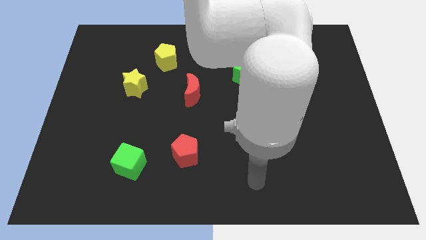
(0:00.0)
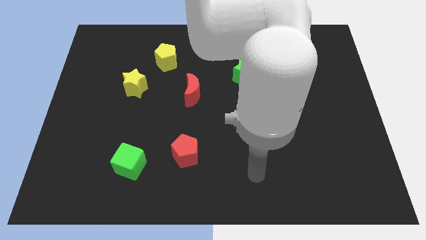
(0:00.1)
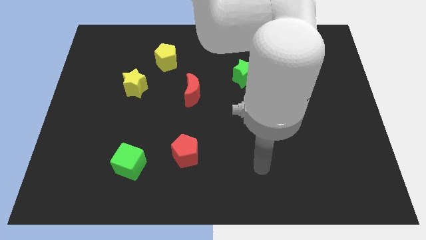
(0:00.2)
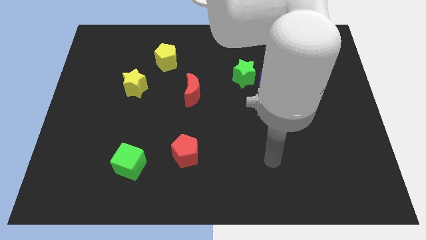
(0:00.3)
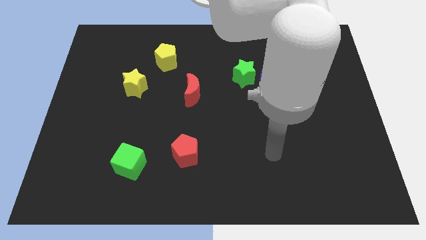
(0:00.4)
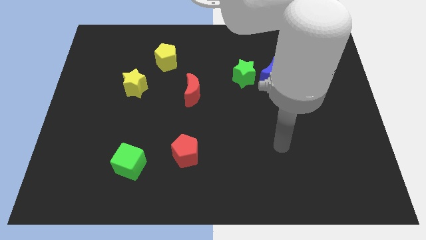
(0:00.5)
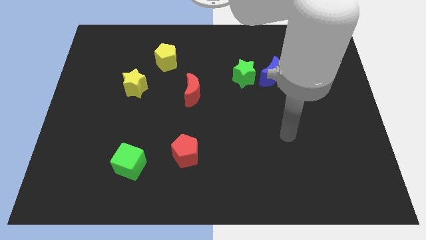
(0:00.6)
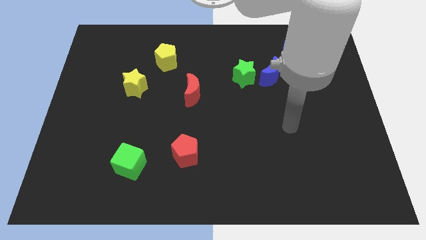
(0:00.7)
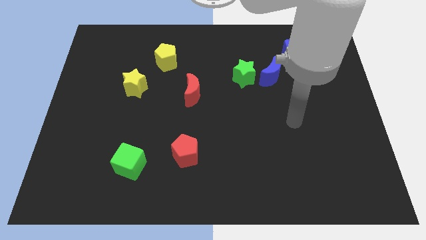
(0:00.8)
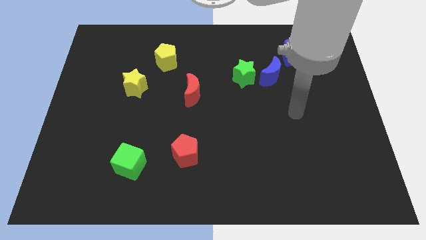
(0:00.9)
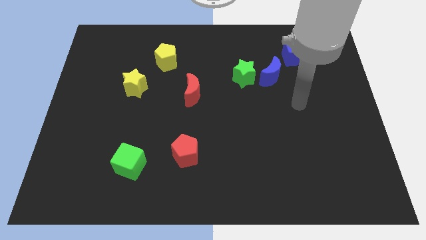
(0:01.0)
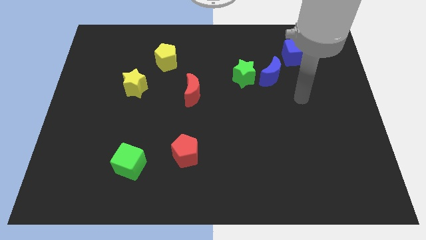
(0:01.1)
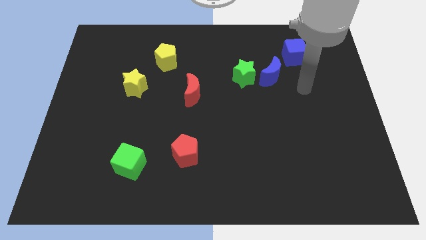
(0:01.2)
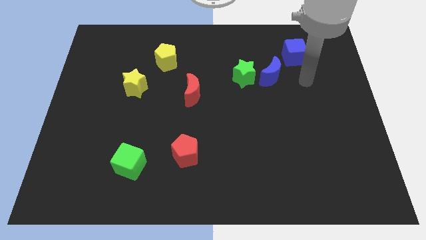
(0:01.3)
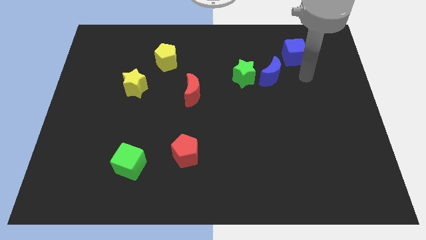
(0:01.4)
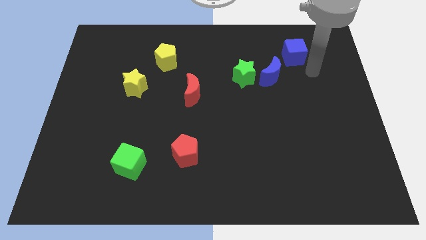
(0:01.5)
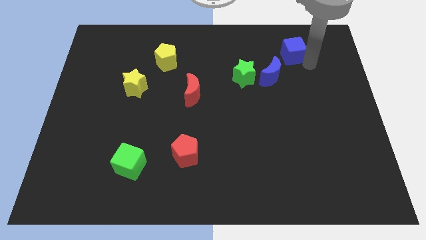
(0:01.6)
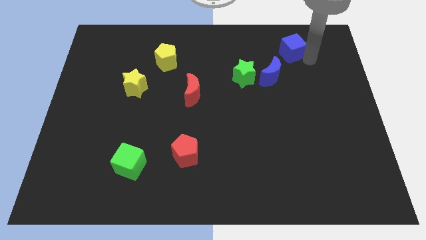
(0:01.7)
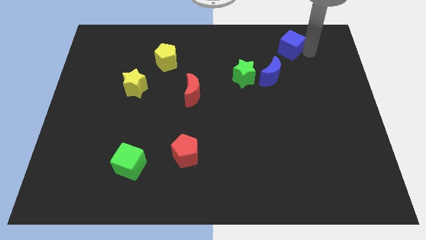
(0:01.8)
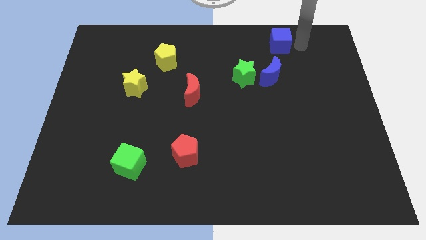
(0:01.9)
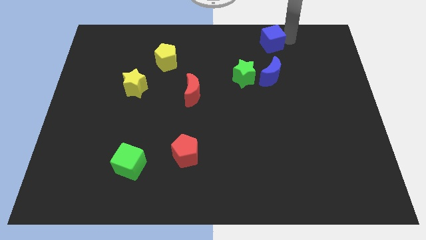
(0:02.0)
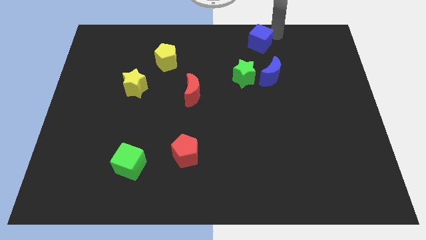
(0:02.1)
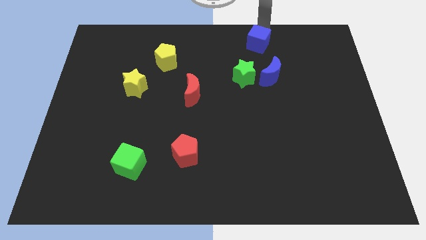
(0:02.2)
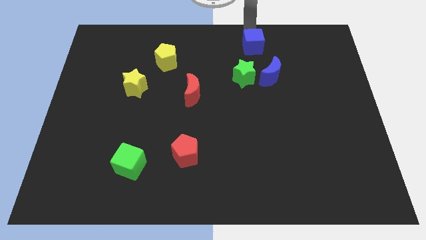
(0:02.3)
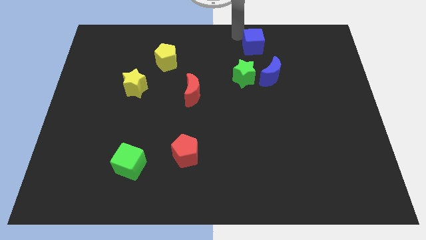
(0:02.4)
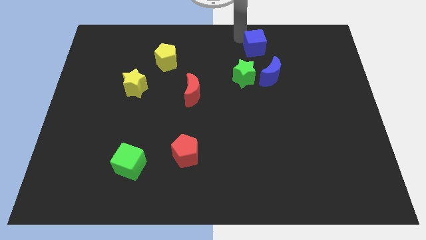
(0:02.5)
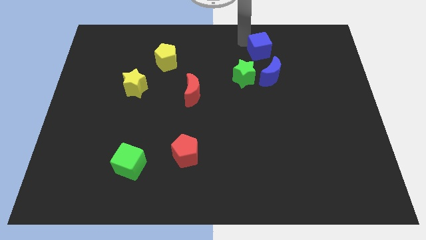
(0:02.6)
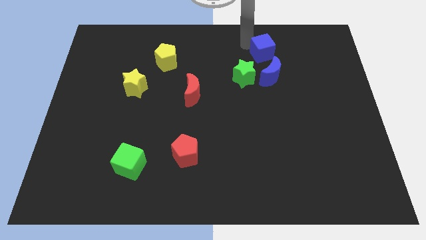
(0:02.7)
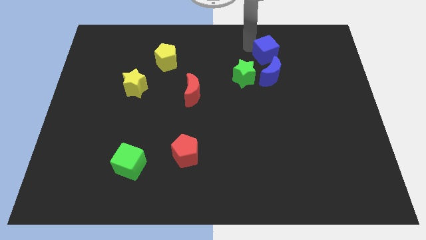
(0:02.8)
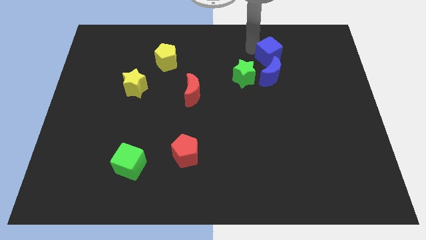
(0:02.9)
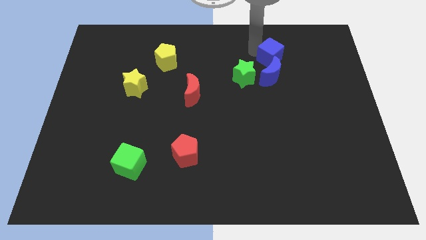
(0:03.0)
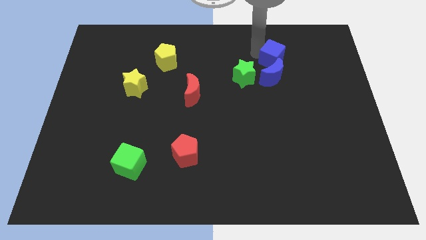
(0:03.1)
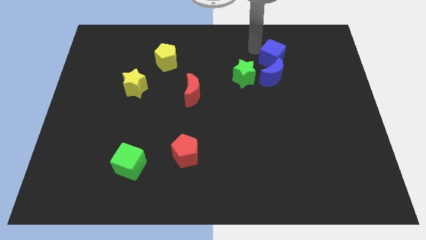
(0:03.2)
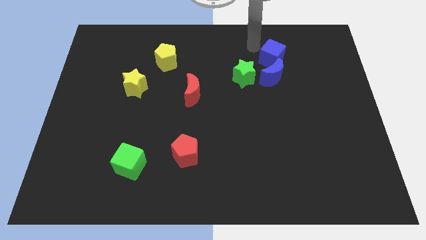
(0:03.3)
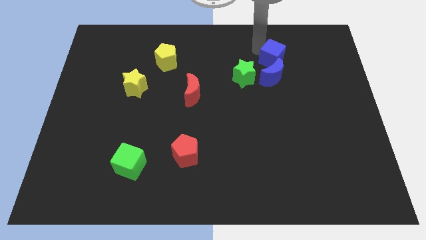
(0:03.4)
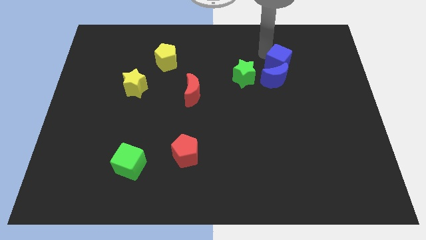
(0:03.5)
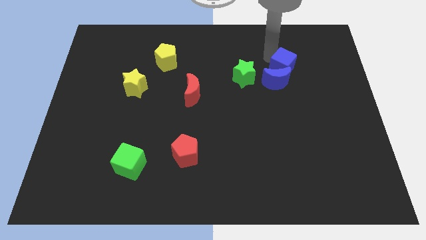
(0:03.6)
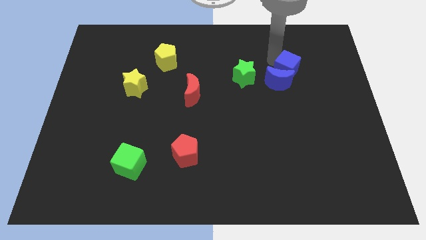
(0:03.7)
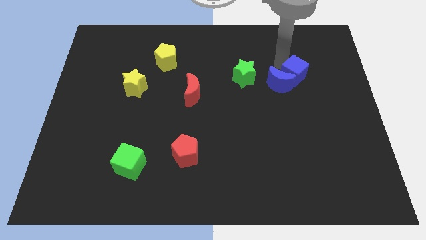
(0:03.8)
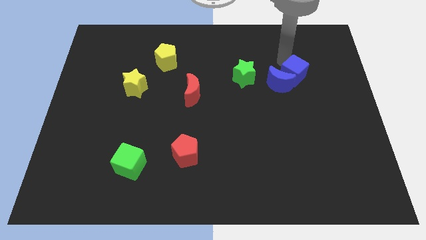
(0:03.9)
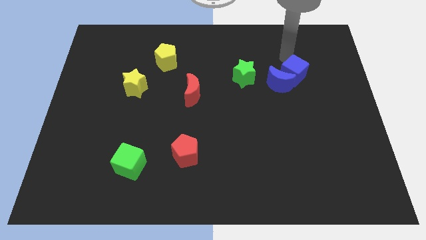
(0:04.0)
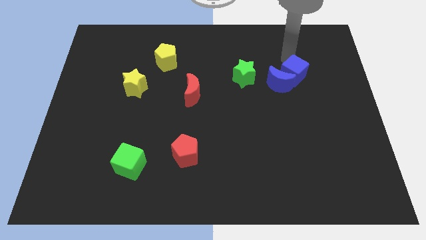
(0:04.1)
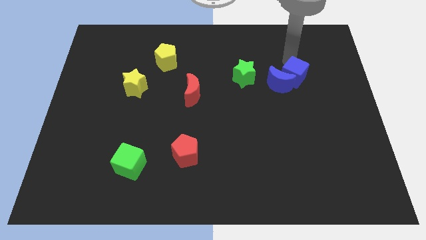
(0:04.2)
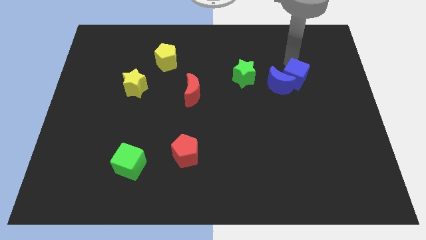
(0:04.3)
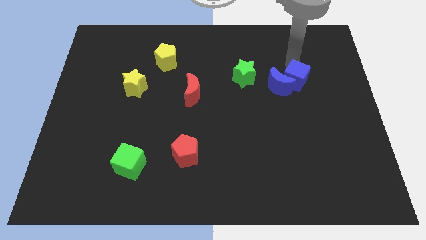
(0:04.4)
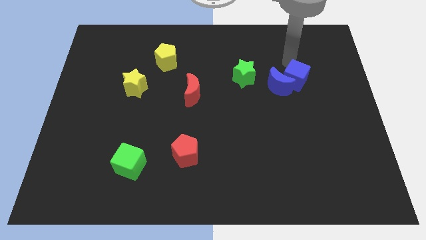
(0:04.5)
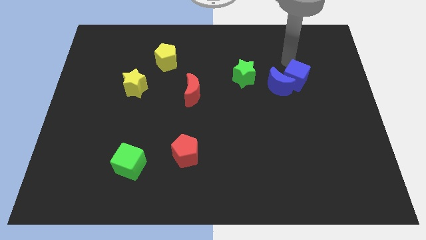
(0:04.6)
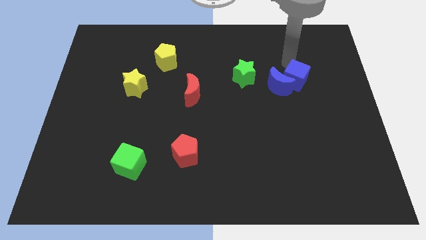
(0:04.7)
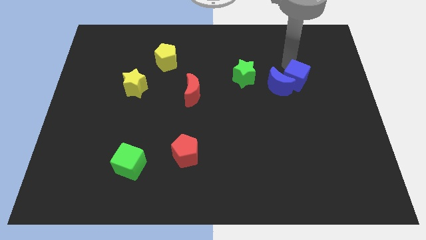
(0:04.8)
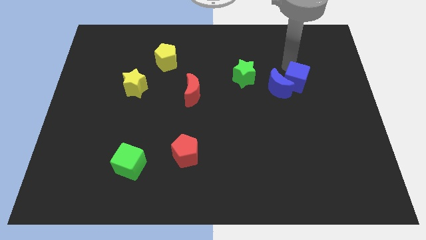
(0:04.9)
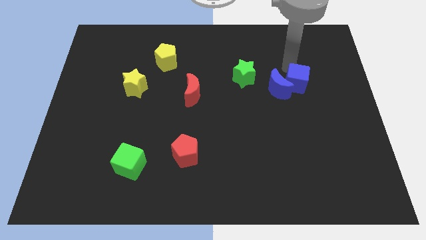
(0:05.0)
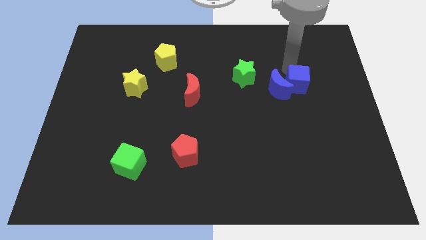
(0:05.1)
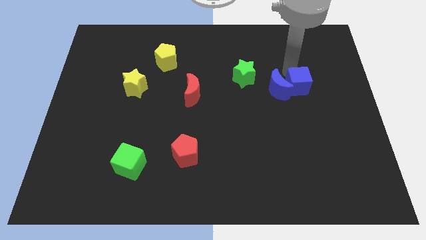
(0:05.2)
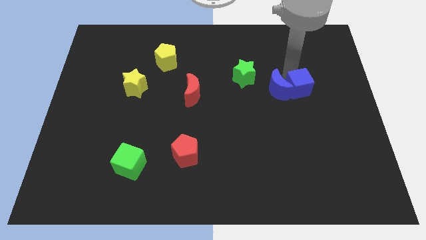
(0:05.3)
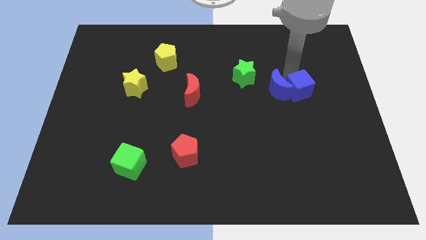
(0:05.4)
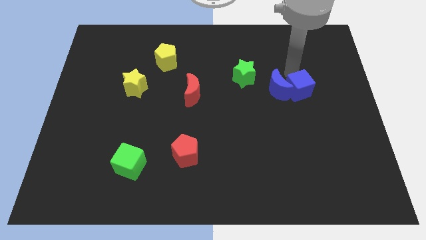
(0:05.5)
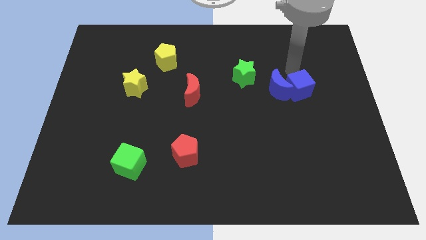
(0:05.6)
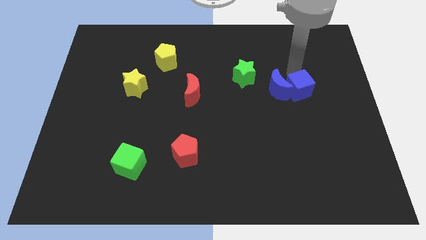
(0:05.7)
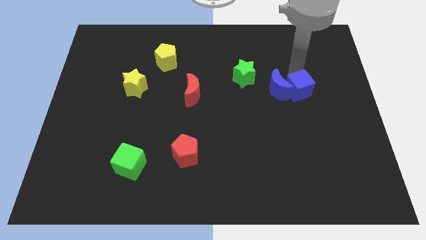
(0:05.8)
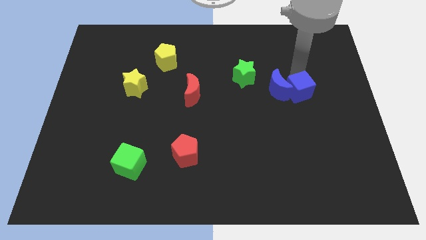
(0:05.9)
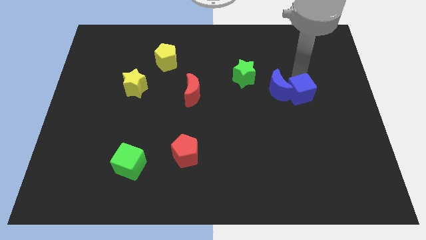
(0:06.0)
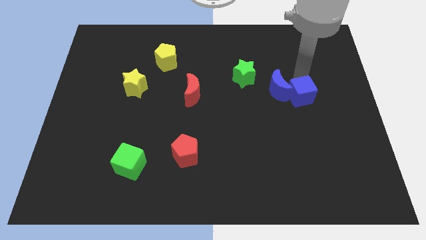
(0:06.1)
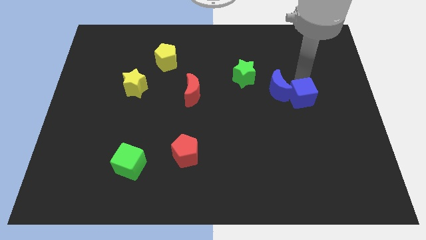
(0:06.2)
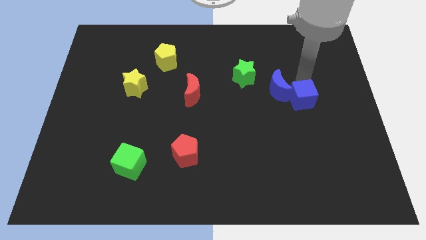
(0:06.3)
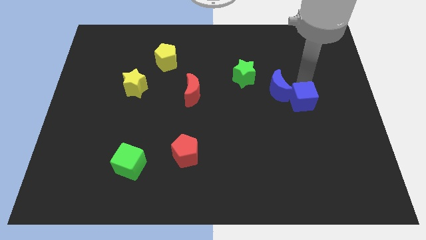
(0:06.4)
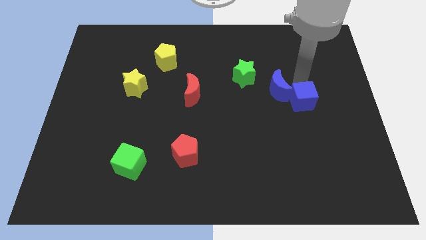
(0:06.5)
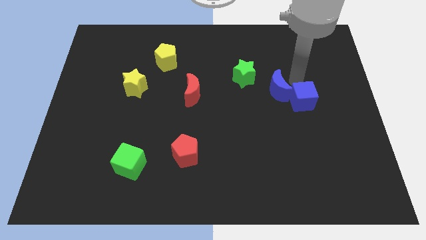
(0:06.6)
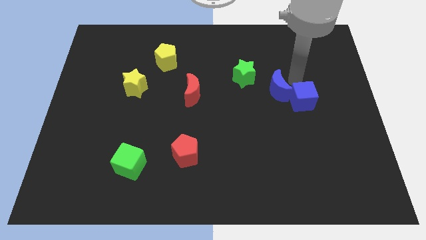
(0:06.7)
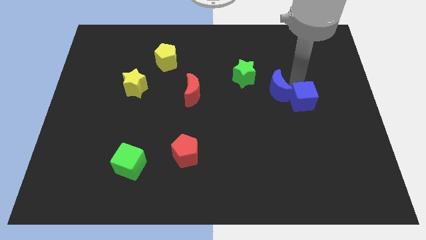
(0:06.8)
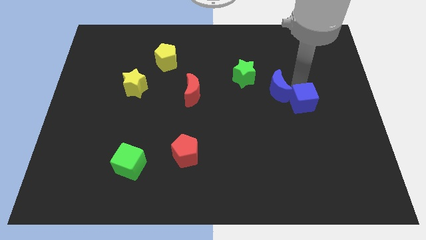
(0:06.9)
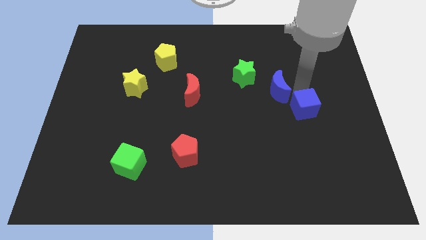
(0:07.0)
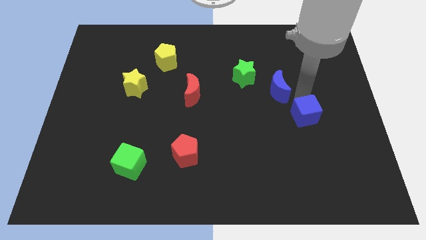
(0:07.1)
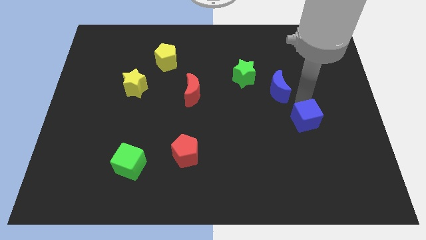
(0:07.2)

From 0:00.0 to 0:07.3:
slide the blue cube downwards

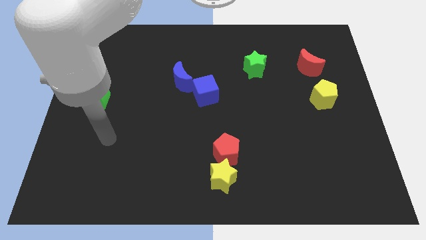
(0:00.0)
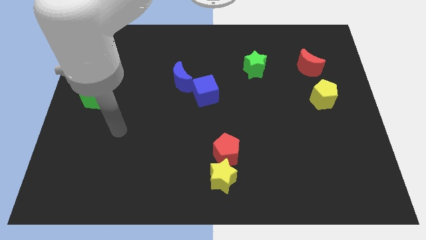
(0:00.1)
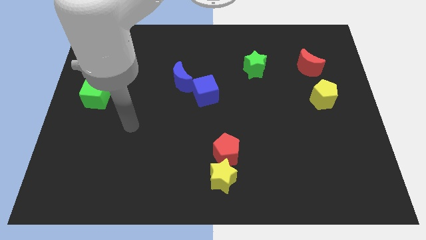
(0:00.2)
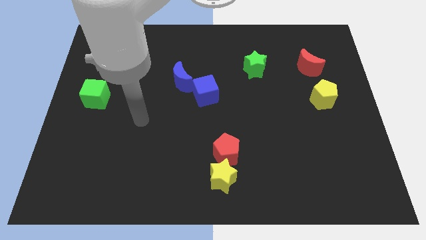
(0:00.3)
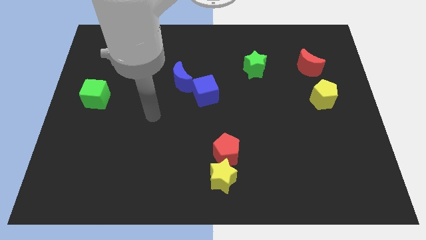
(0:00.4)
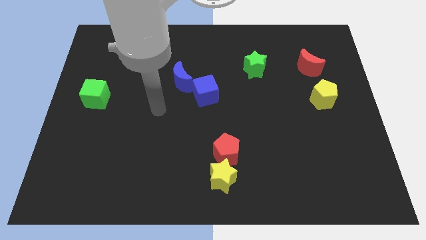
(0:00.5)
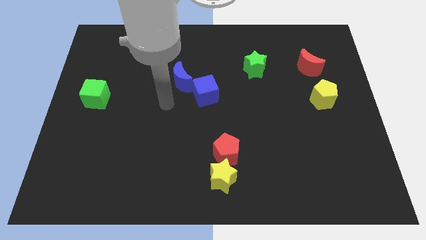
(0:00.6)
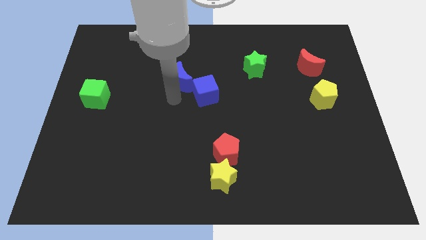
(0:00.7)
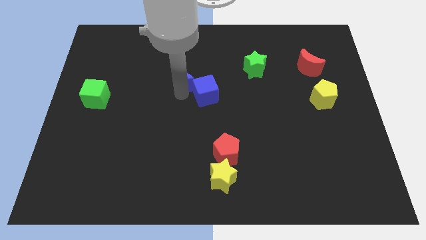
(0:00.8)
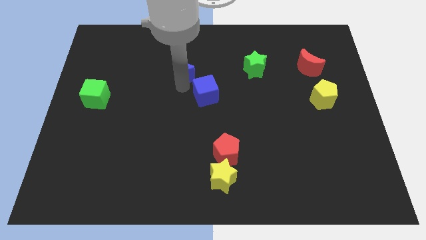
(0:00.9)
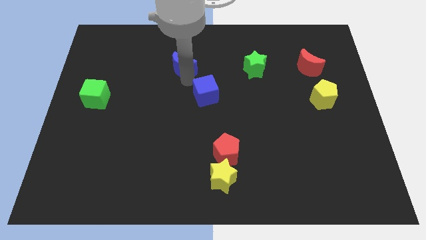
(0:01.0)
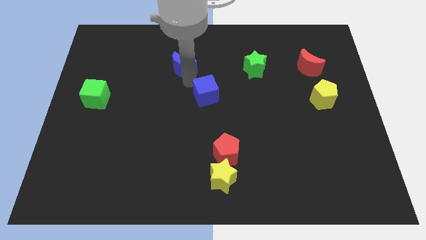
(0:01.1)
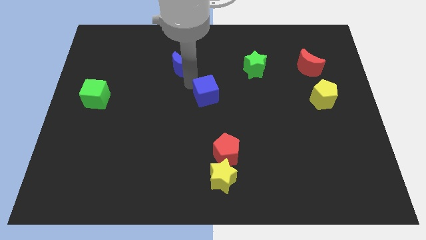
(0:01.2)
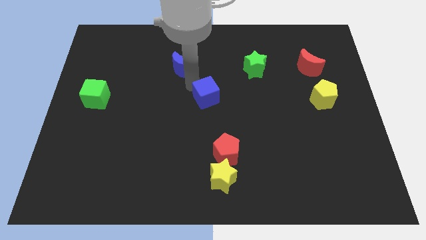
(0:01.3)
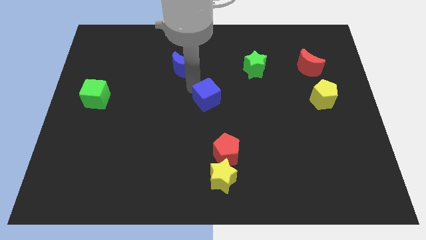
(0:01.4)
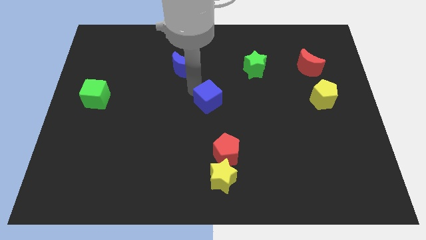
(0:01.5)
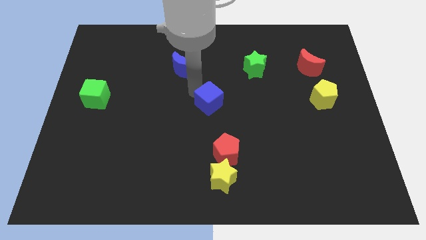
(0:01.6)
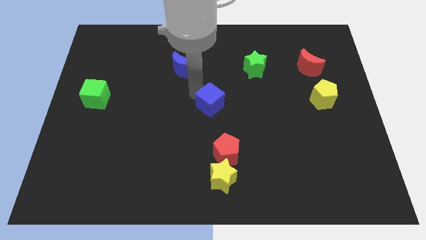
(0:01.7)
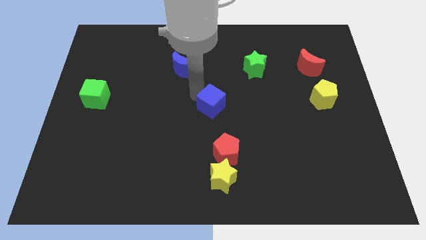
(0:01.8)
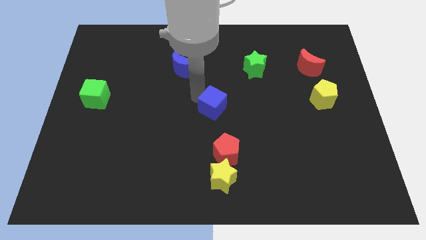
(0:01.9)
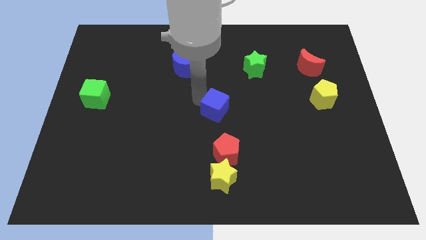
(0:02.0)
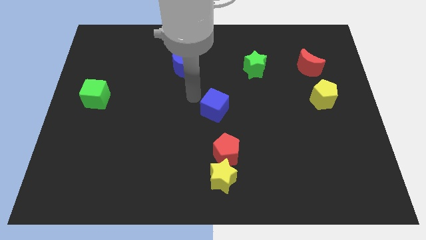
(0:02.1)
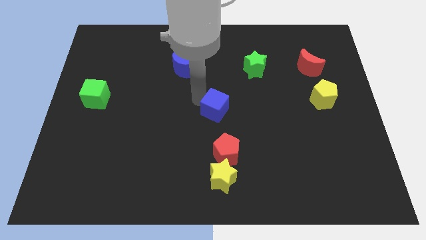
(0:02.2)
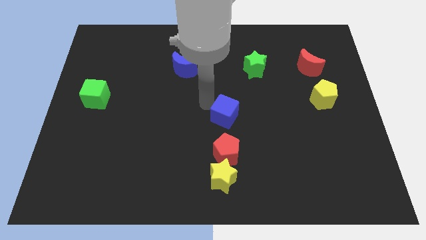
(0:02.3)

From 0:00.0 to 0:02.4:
slide the blue cube slightly diagonally down and right
